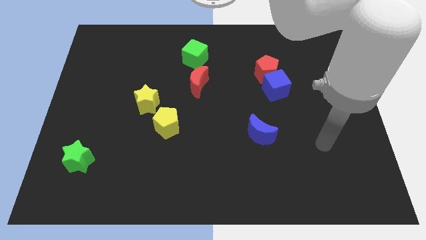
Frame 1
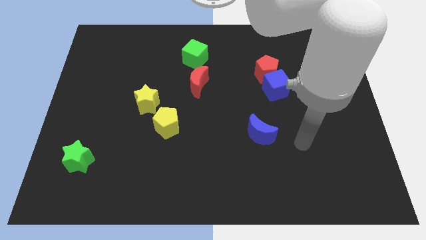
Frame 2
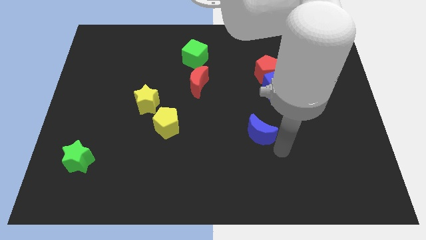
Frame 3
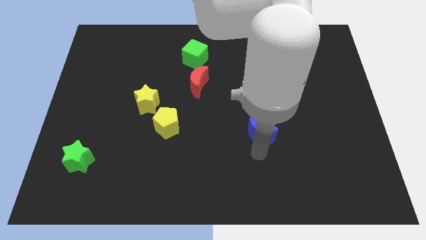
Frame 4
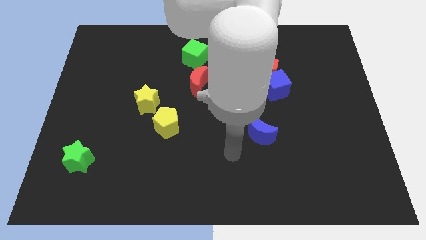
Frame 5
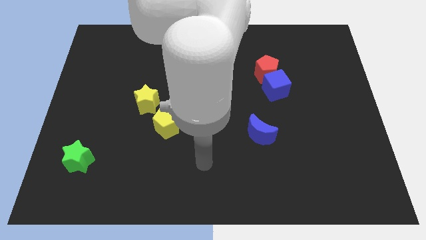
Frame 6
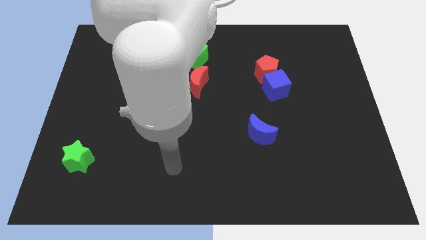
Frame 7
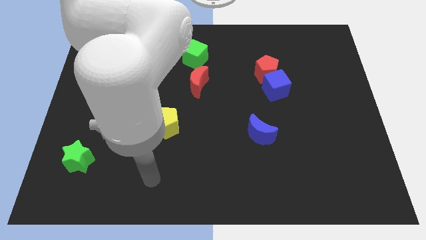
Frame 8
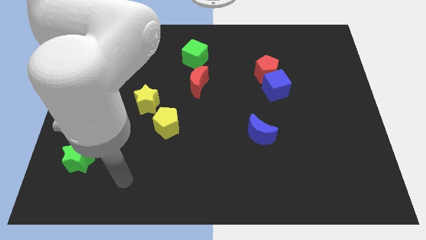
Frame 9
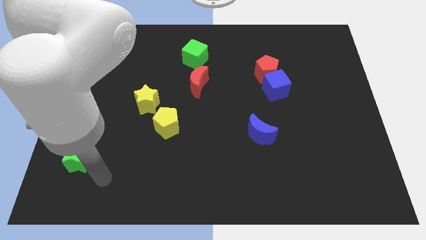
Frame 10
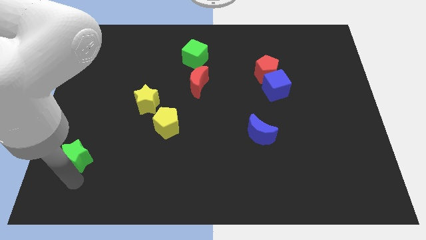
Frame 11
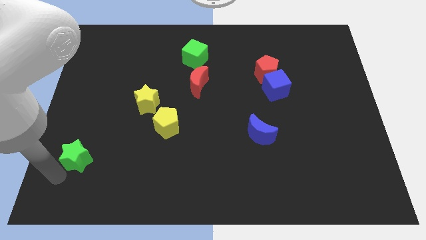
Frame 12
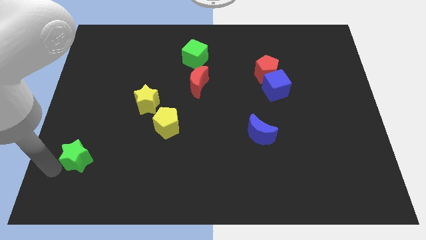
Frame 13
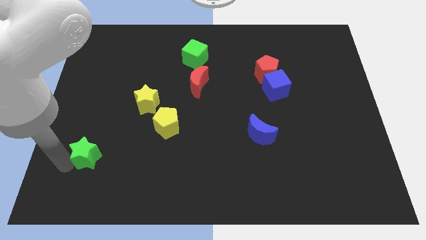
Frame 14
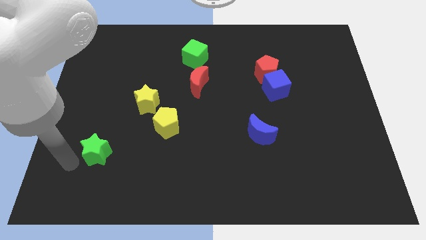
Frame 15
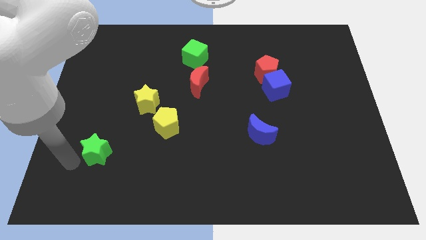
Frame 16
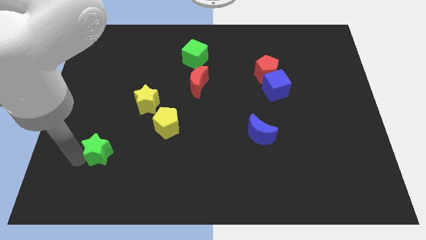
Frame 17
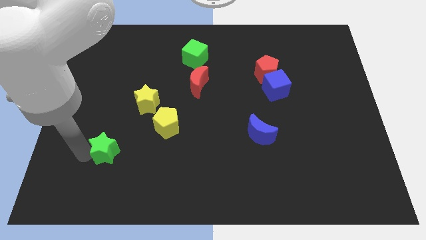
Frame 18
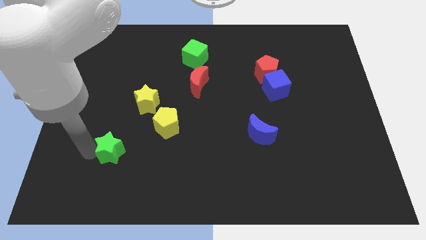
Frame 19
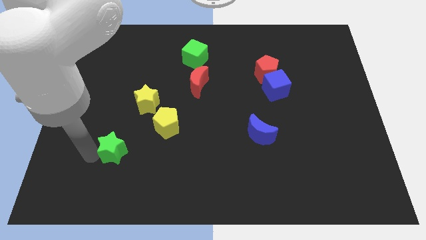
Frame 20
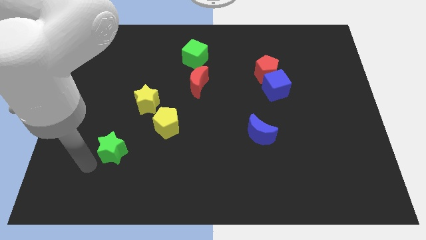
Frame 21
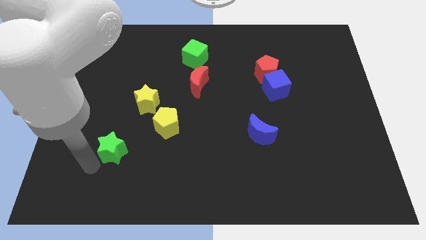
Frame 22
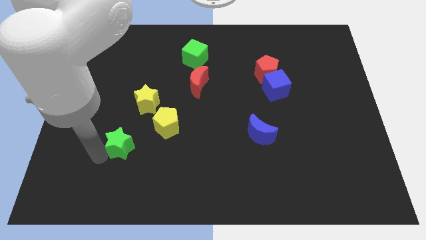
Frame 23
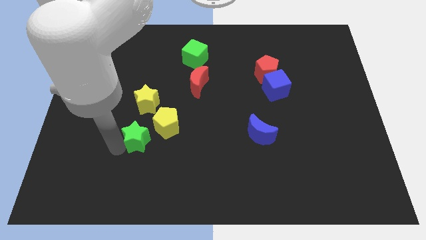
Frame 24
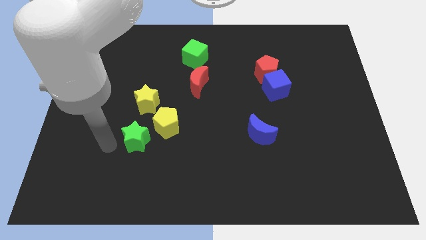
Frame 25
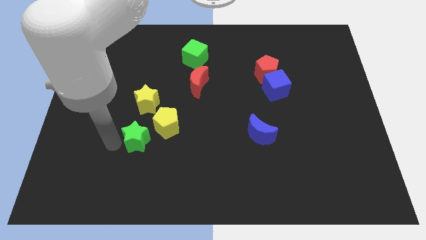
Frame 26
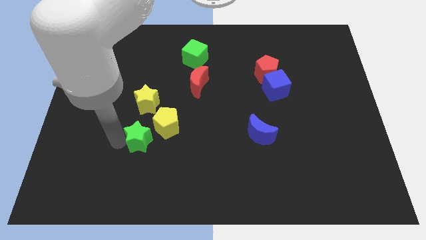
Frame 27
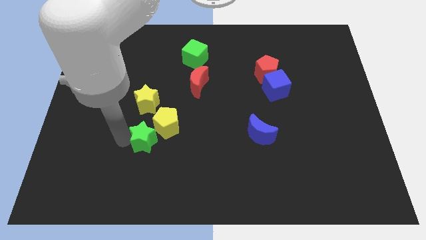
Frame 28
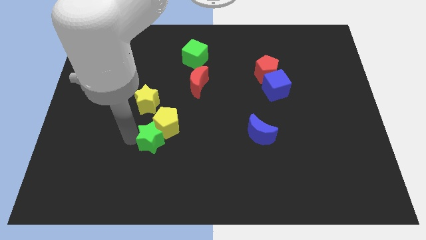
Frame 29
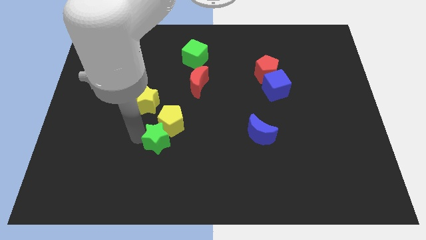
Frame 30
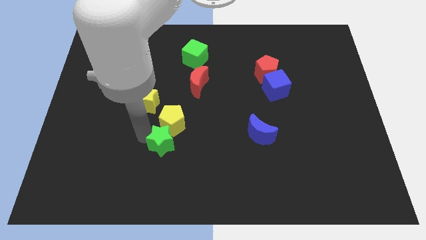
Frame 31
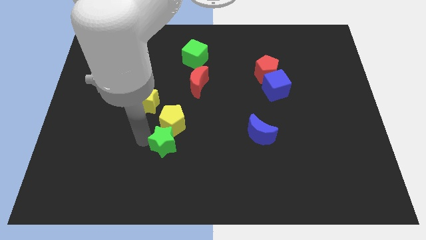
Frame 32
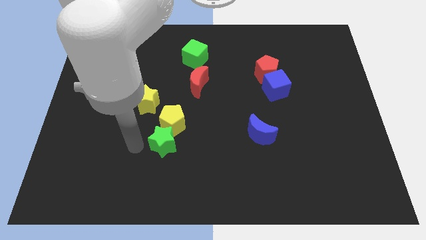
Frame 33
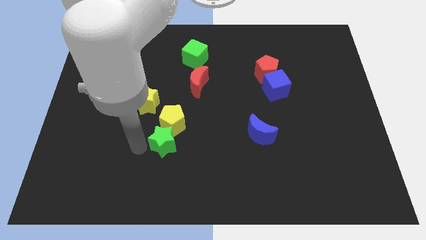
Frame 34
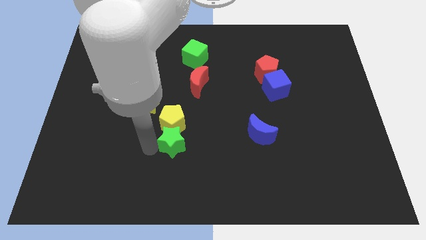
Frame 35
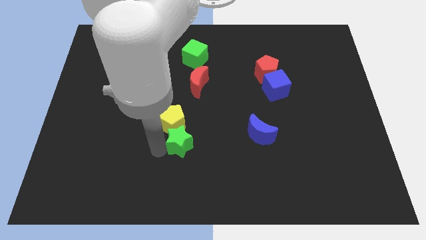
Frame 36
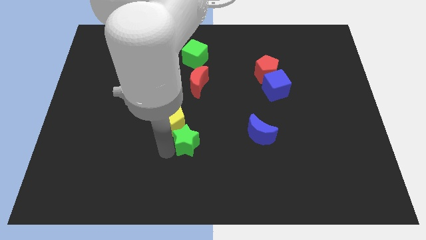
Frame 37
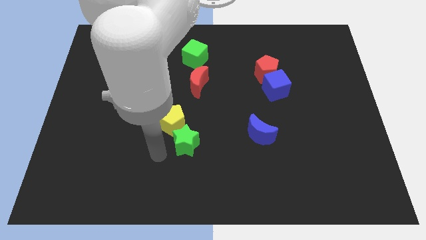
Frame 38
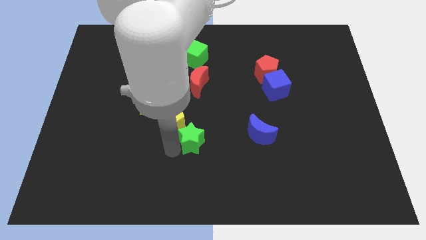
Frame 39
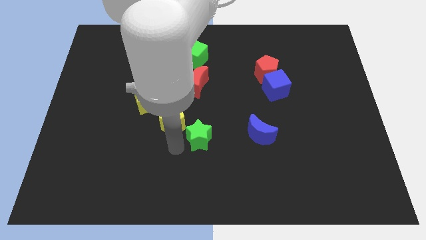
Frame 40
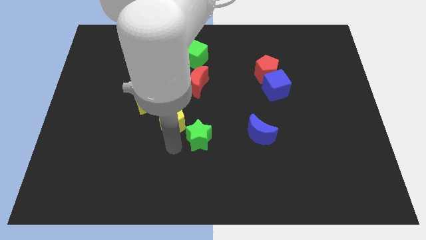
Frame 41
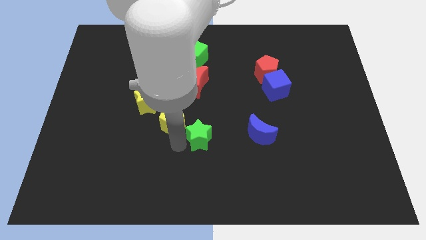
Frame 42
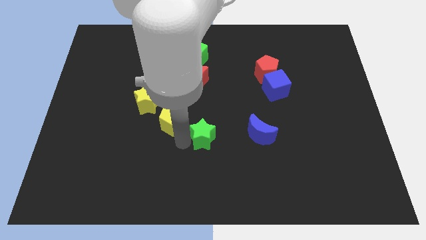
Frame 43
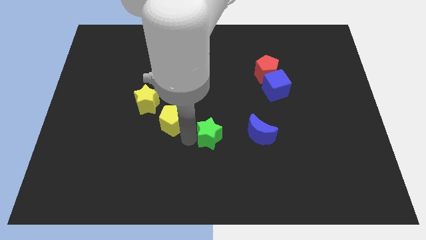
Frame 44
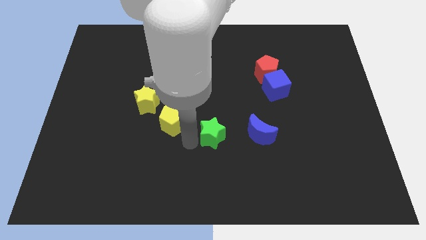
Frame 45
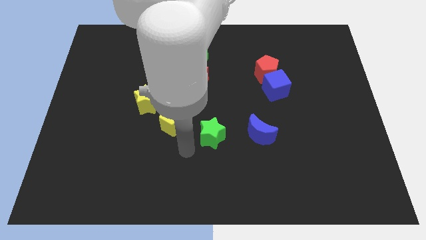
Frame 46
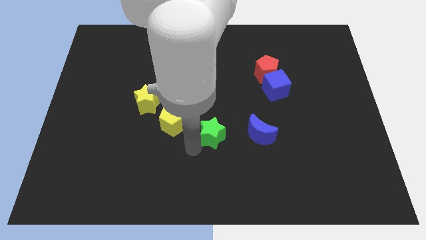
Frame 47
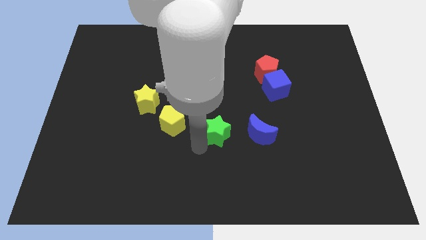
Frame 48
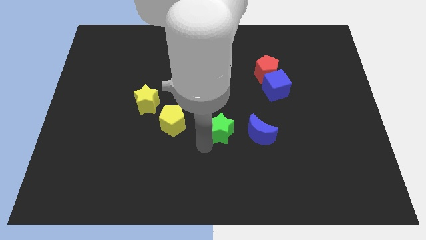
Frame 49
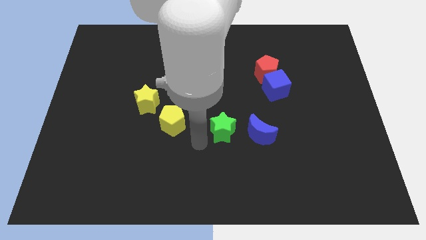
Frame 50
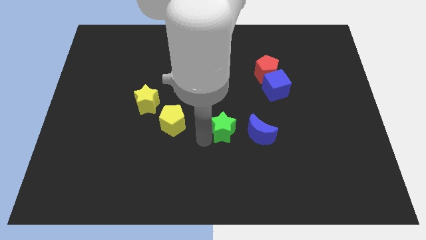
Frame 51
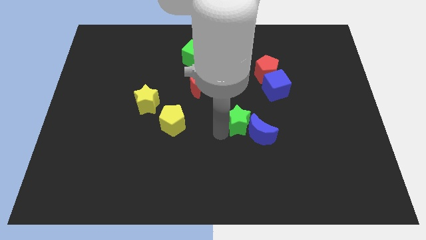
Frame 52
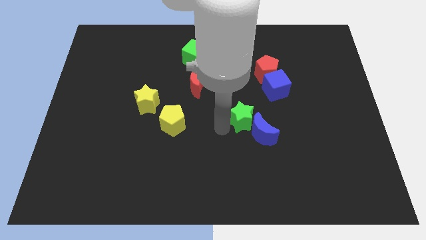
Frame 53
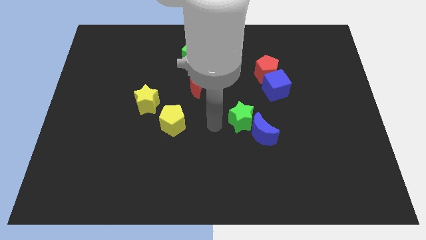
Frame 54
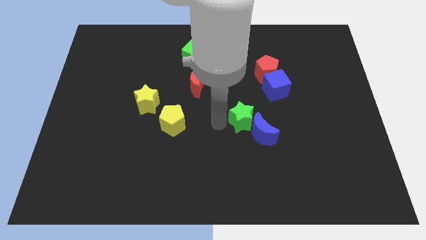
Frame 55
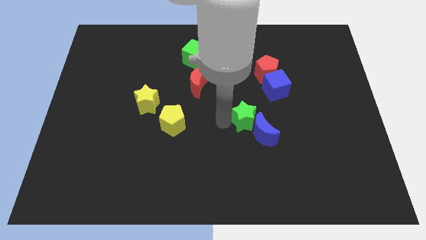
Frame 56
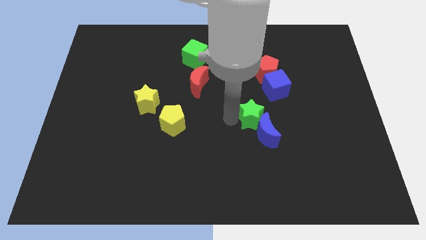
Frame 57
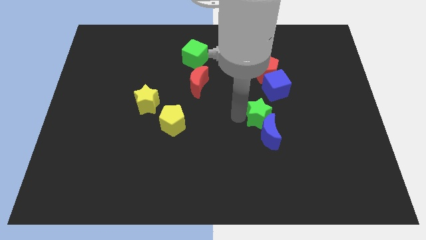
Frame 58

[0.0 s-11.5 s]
move the green star to the top right of the blue moon

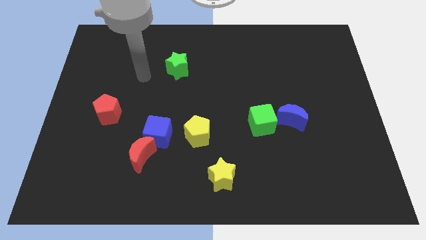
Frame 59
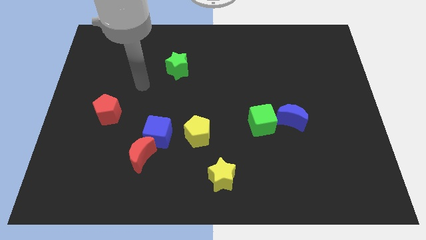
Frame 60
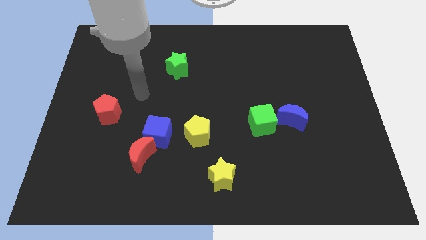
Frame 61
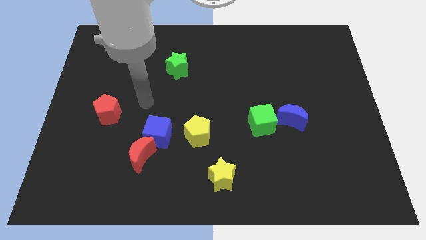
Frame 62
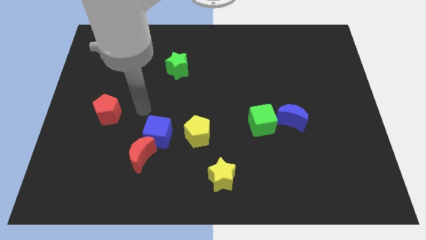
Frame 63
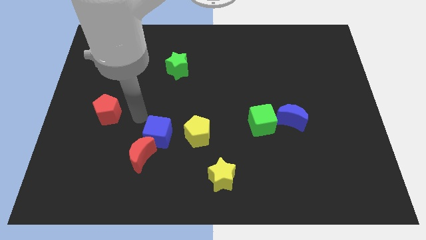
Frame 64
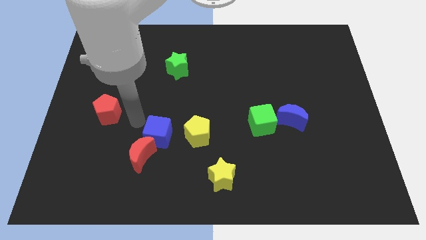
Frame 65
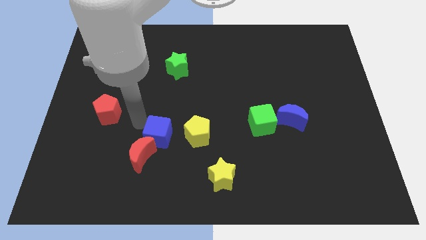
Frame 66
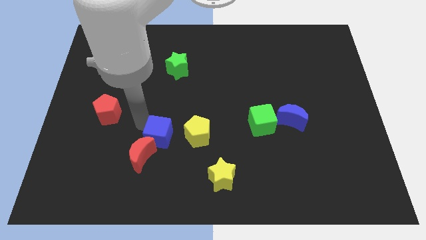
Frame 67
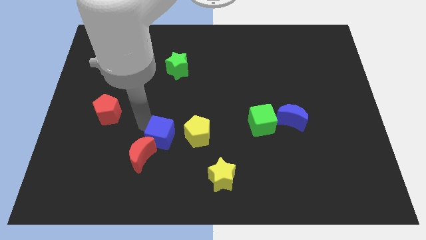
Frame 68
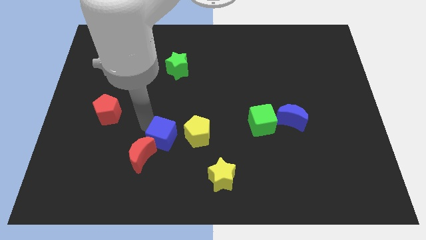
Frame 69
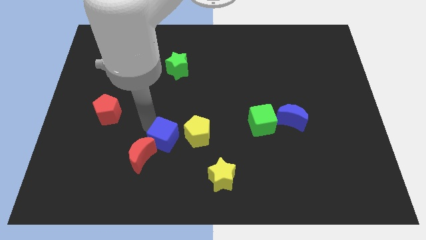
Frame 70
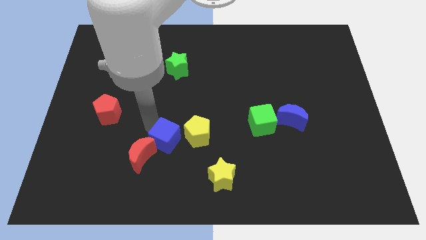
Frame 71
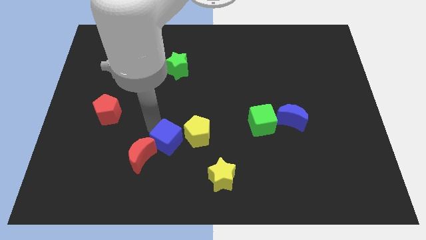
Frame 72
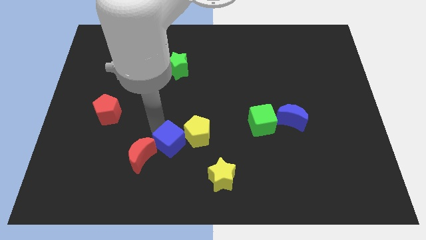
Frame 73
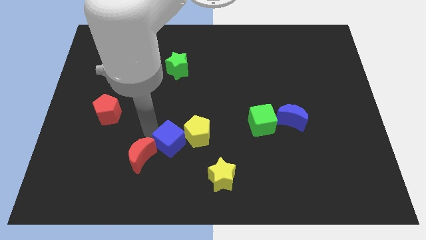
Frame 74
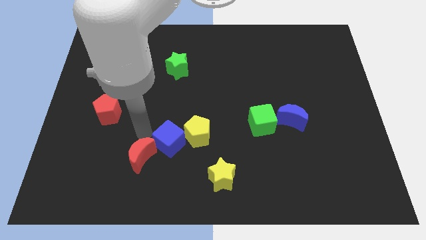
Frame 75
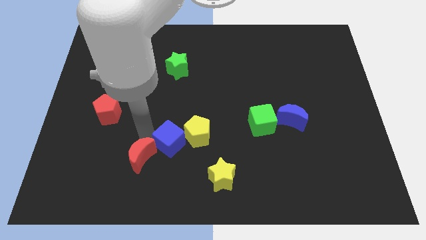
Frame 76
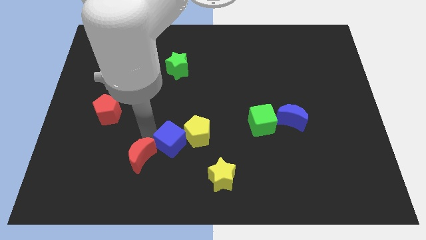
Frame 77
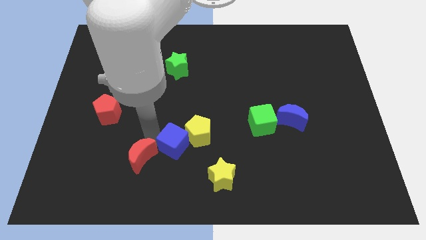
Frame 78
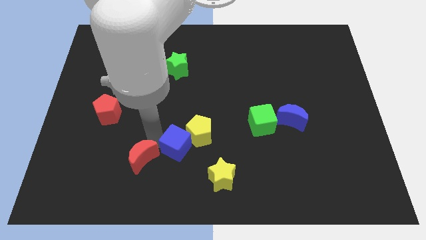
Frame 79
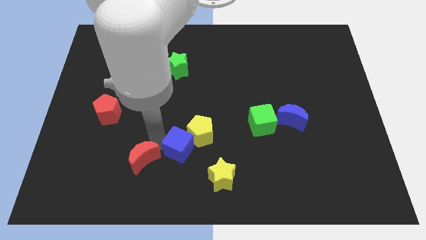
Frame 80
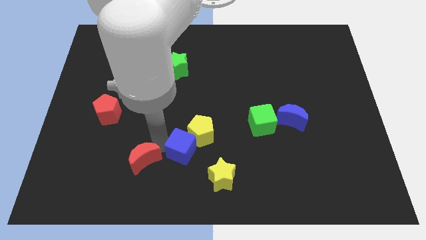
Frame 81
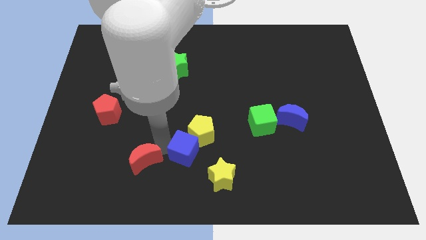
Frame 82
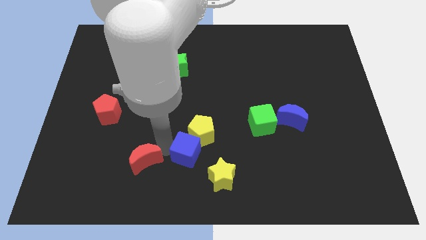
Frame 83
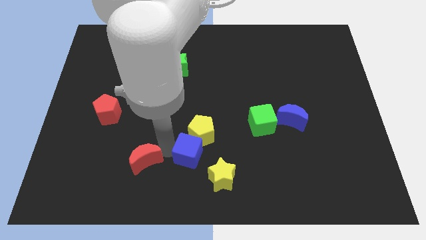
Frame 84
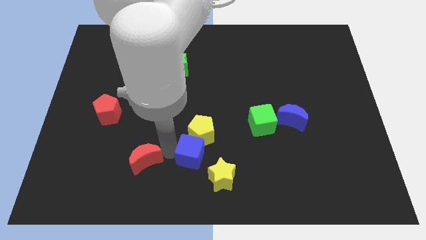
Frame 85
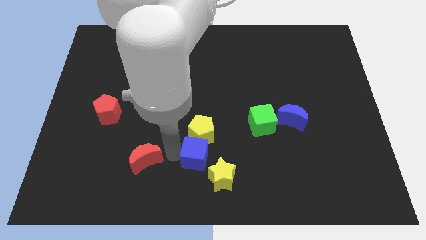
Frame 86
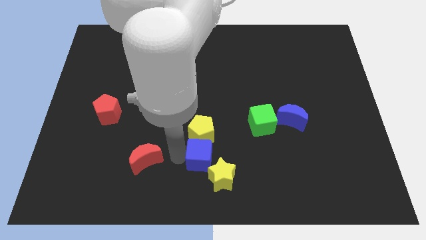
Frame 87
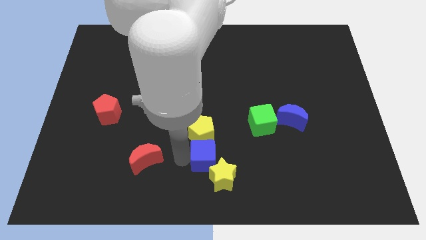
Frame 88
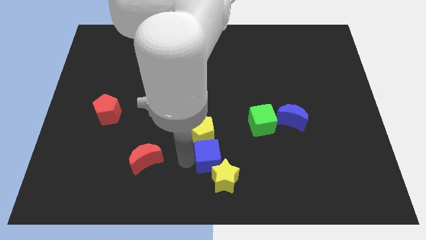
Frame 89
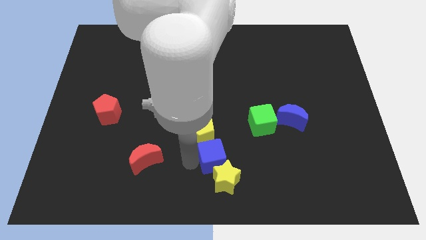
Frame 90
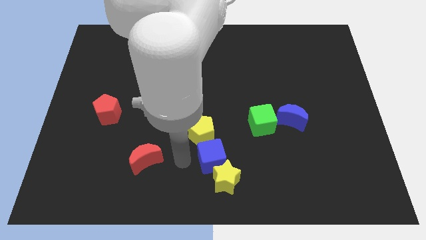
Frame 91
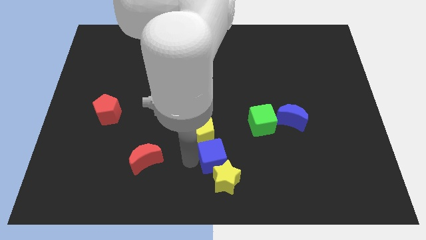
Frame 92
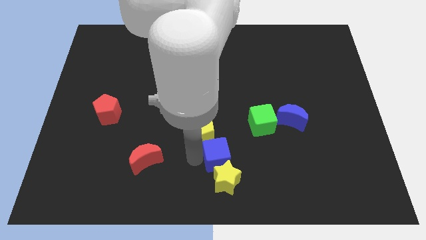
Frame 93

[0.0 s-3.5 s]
put the blue cube to the top right side of the yellow star
